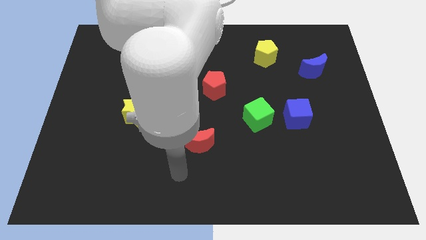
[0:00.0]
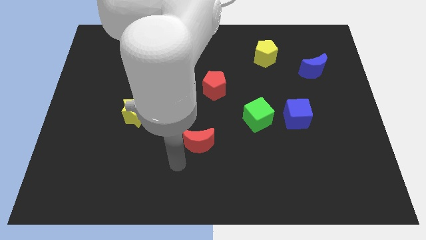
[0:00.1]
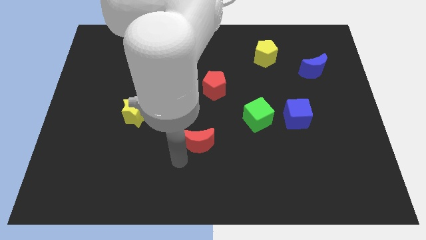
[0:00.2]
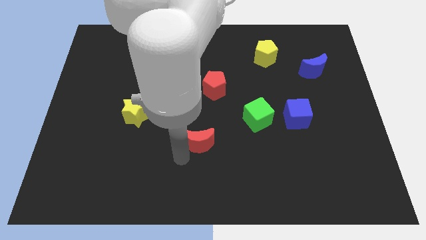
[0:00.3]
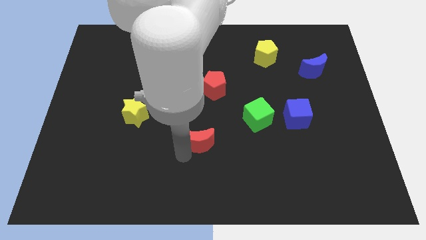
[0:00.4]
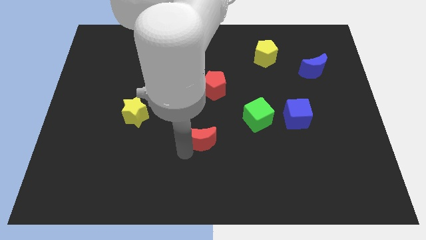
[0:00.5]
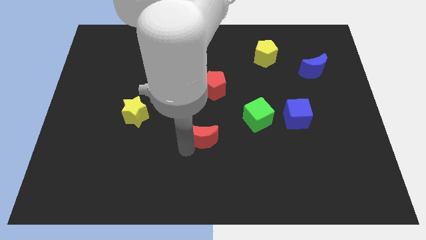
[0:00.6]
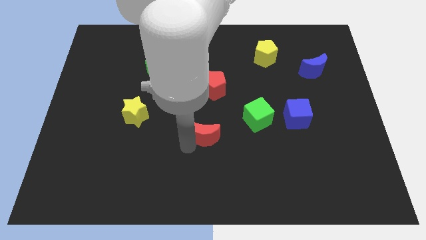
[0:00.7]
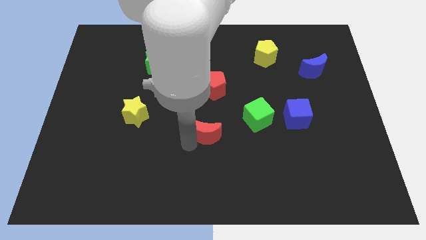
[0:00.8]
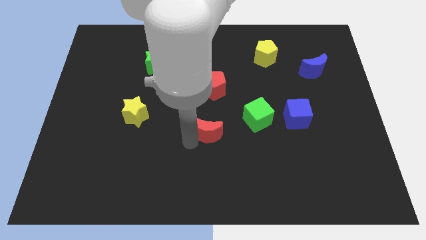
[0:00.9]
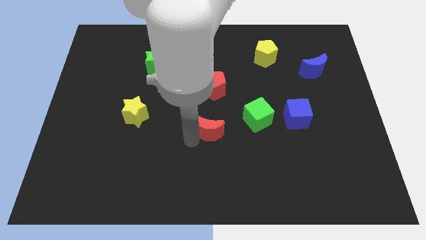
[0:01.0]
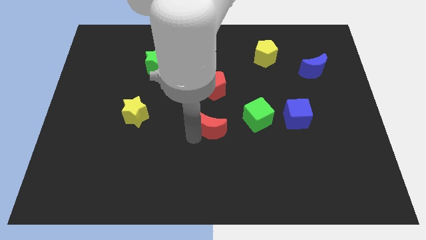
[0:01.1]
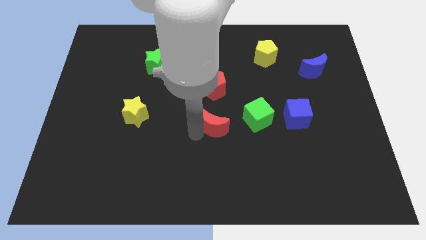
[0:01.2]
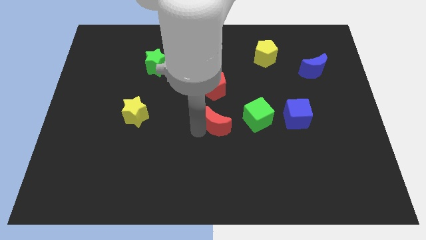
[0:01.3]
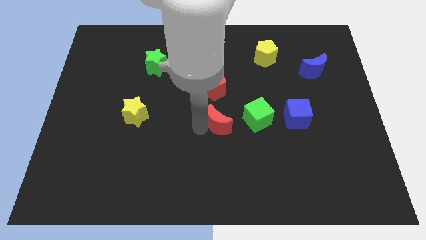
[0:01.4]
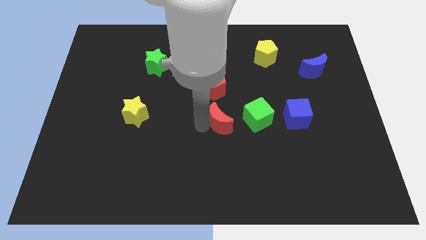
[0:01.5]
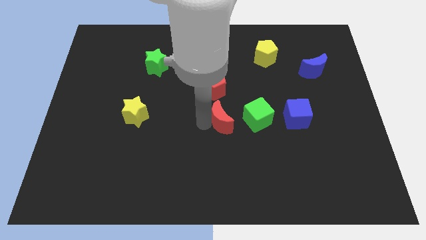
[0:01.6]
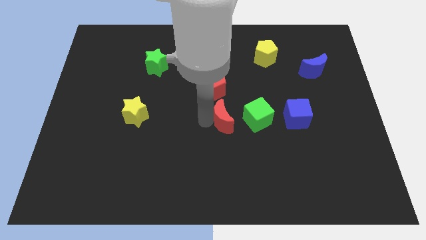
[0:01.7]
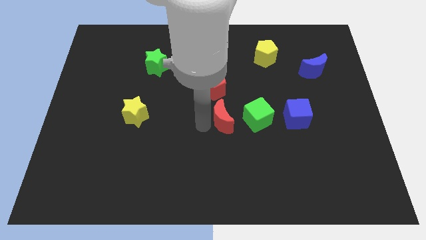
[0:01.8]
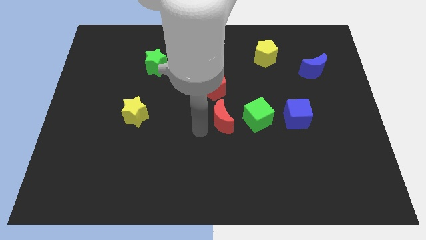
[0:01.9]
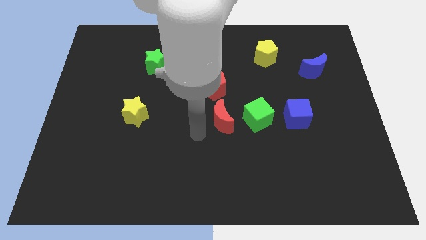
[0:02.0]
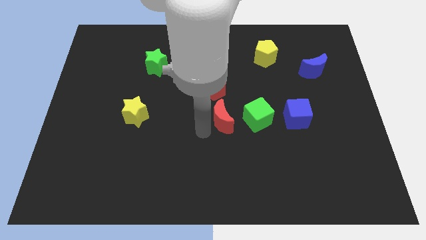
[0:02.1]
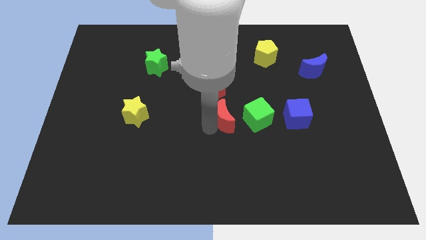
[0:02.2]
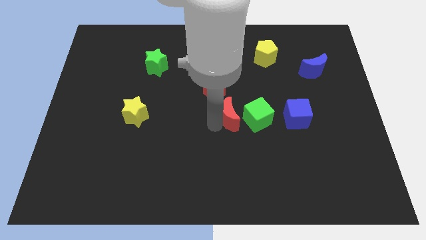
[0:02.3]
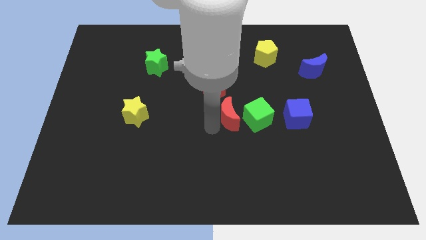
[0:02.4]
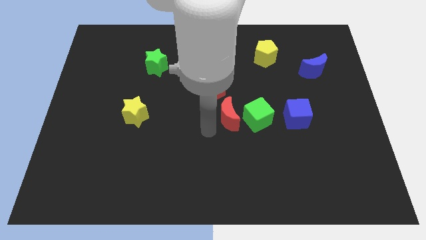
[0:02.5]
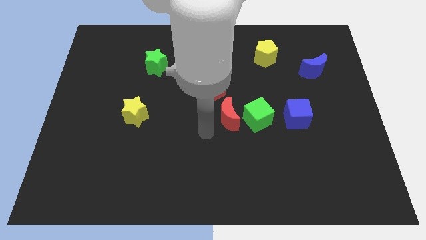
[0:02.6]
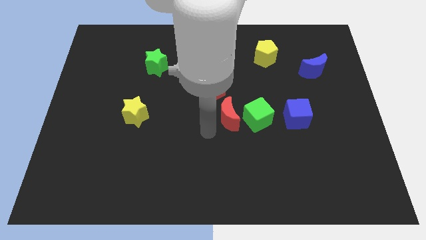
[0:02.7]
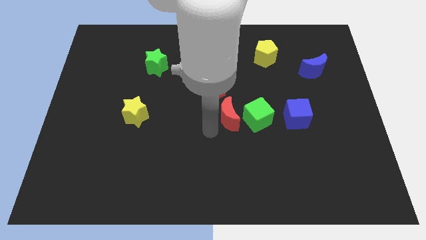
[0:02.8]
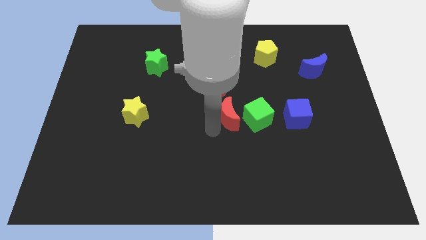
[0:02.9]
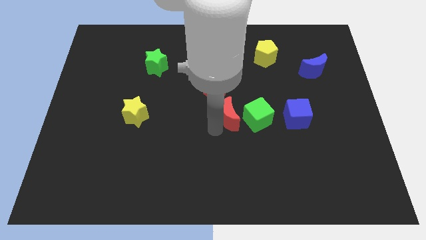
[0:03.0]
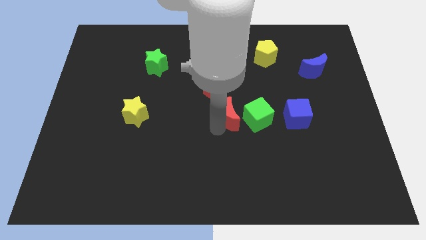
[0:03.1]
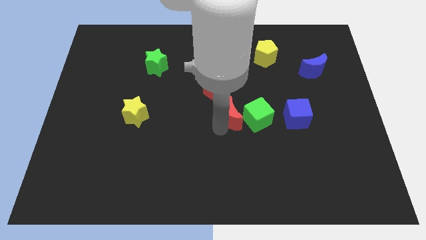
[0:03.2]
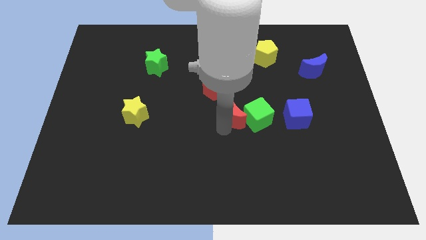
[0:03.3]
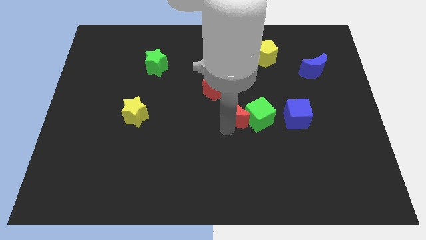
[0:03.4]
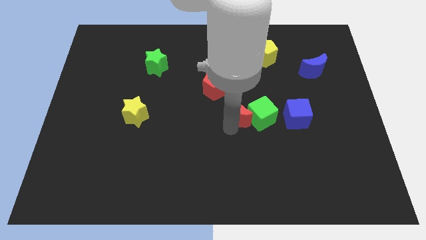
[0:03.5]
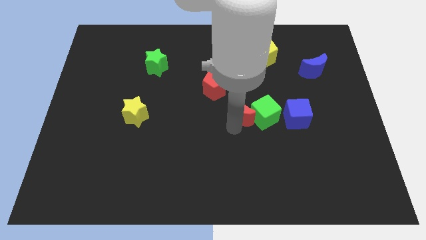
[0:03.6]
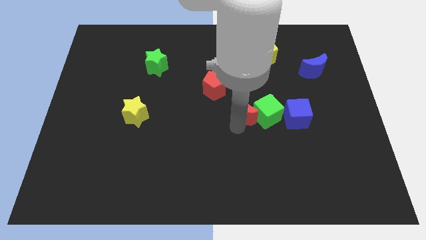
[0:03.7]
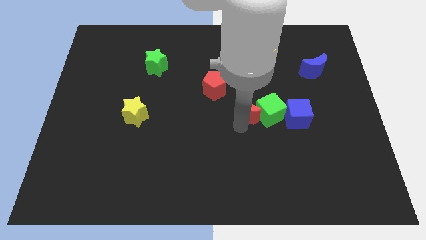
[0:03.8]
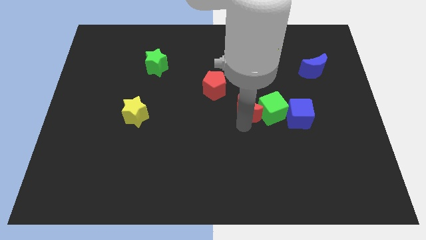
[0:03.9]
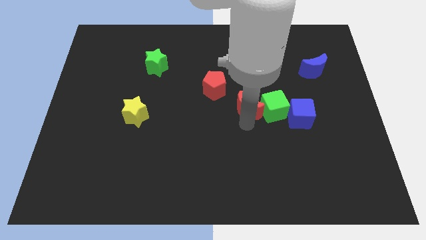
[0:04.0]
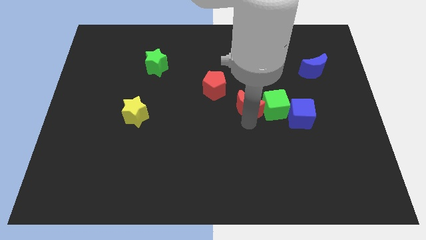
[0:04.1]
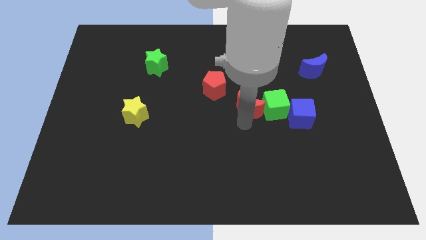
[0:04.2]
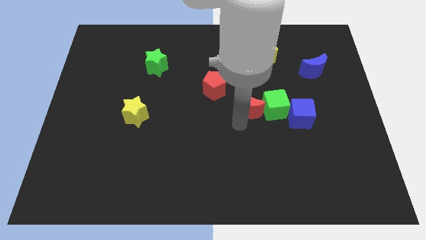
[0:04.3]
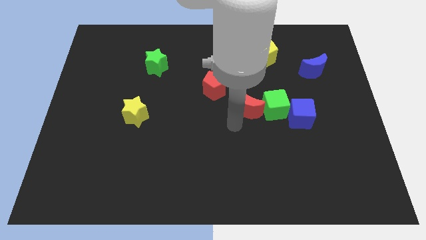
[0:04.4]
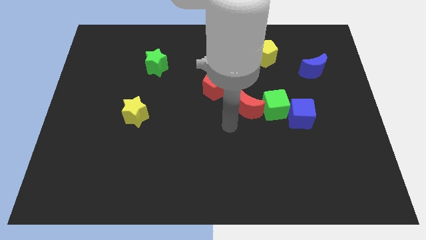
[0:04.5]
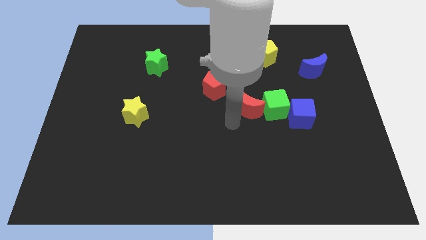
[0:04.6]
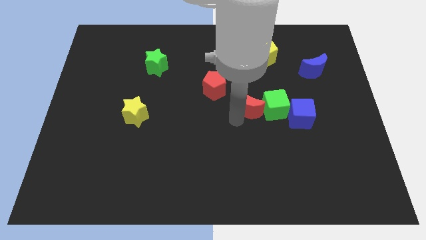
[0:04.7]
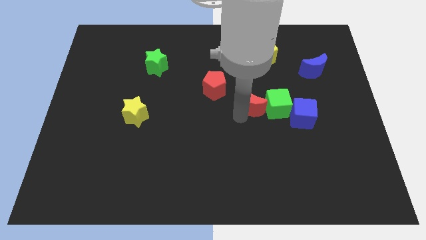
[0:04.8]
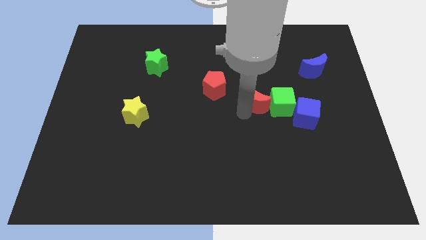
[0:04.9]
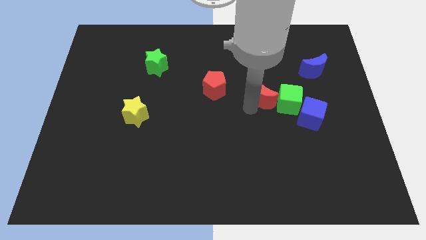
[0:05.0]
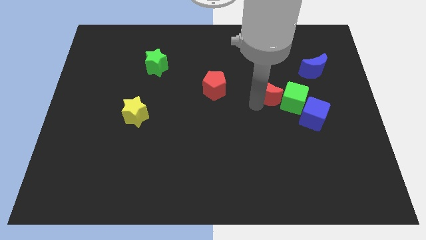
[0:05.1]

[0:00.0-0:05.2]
slide the red moon upwards and then right

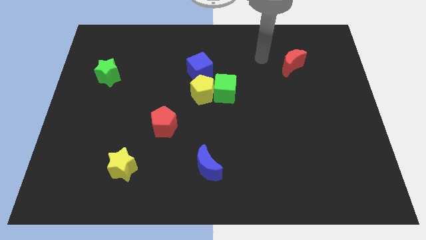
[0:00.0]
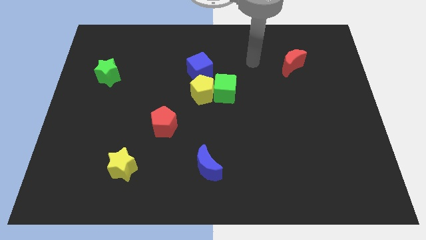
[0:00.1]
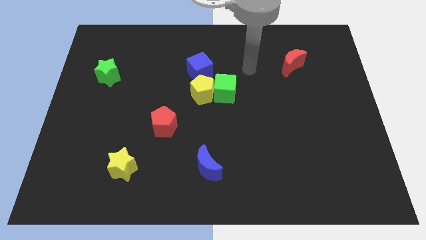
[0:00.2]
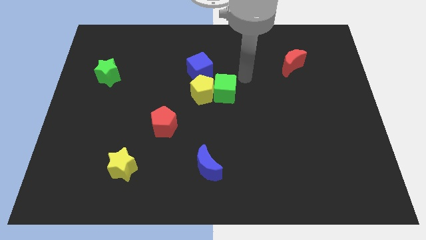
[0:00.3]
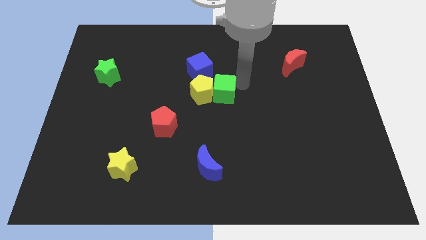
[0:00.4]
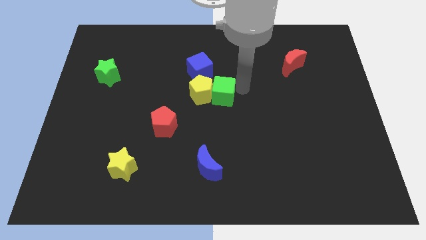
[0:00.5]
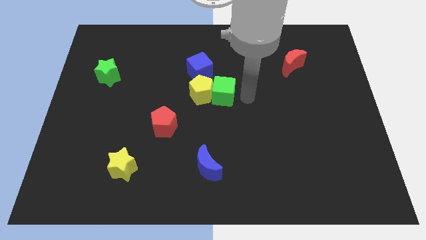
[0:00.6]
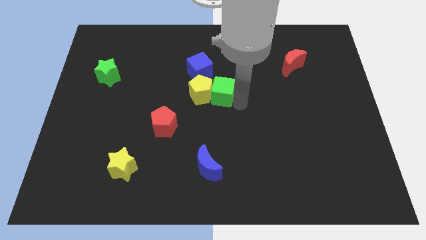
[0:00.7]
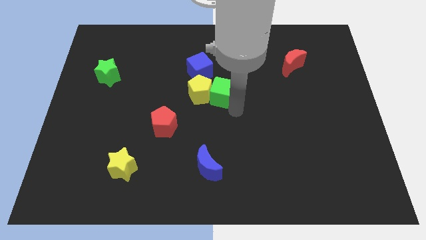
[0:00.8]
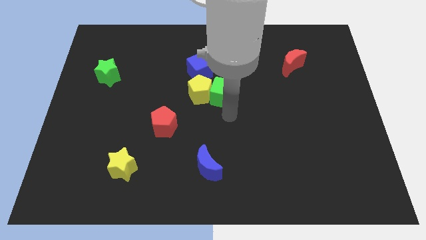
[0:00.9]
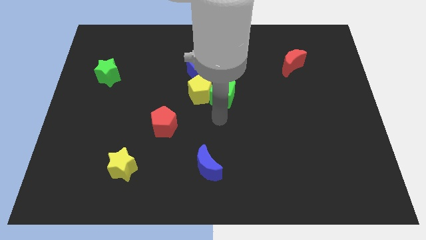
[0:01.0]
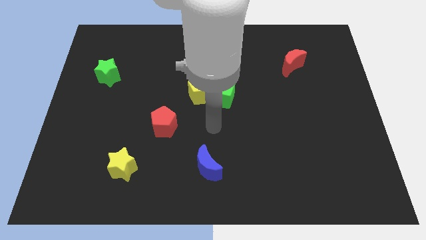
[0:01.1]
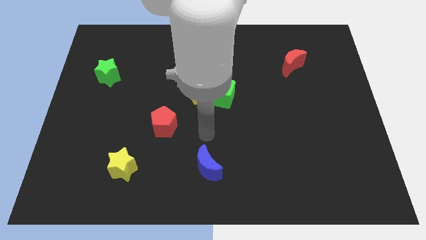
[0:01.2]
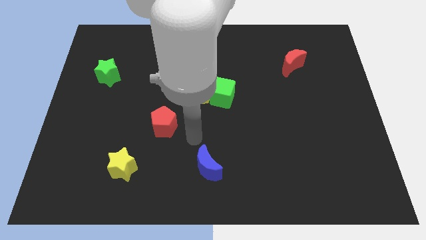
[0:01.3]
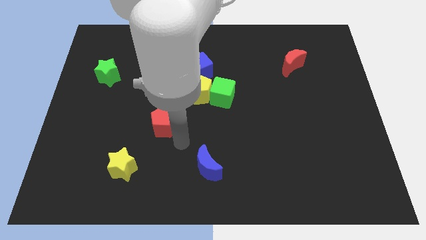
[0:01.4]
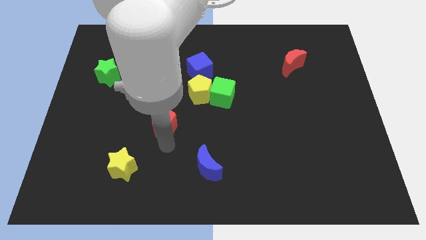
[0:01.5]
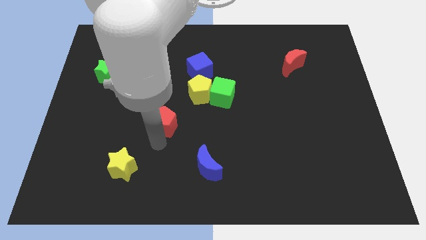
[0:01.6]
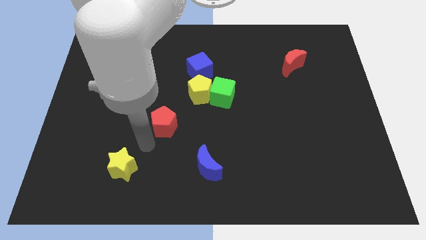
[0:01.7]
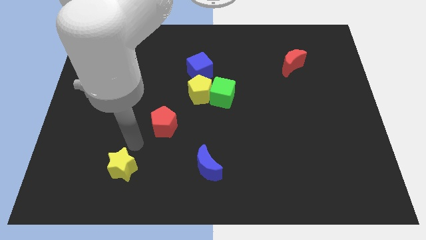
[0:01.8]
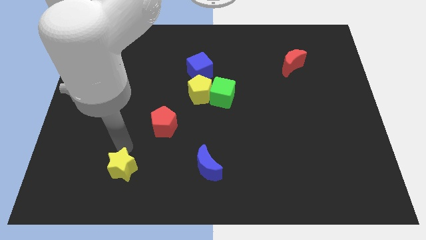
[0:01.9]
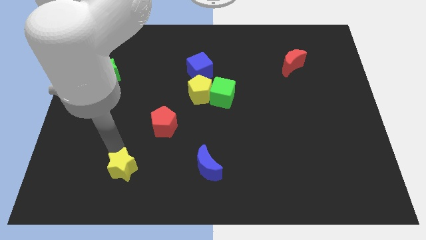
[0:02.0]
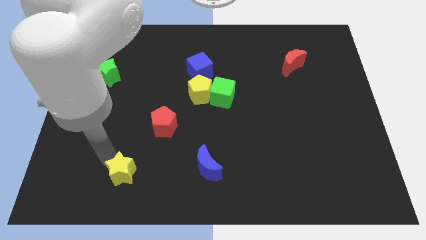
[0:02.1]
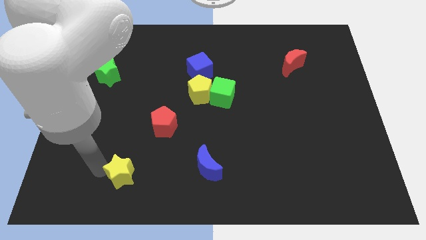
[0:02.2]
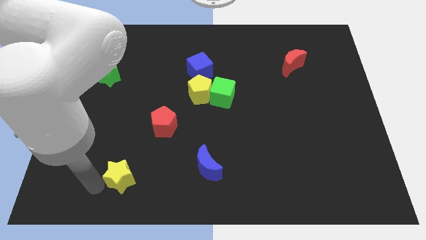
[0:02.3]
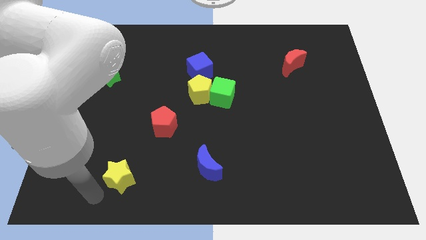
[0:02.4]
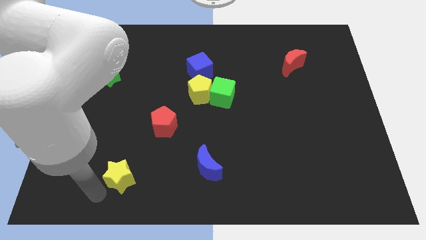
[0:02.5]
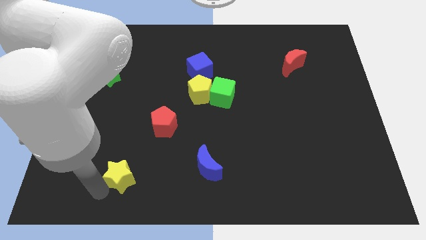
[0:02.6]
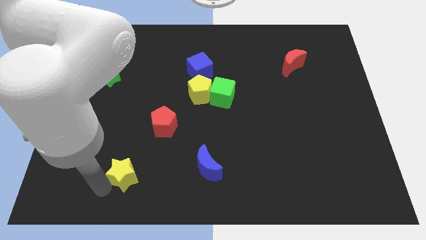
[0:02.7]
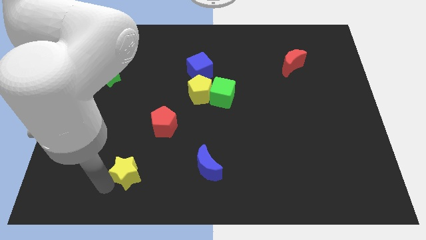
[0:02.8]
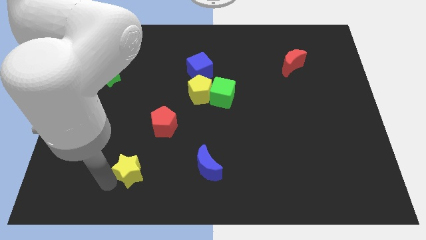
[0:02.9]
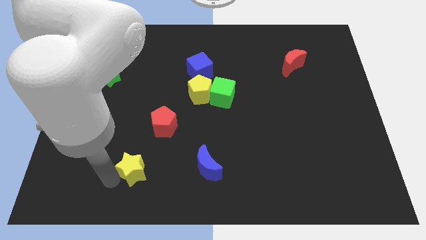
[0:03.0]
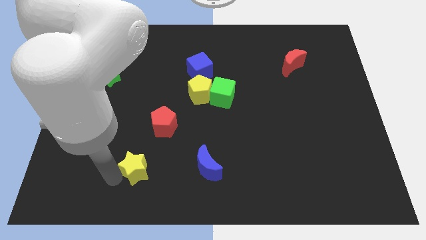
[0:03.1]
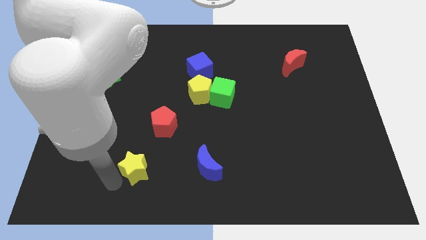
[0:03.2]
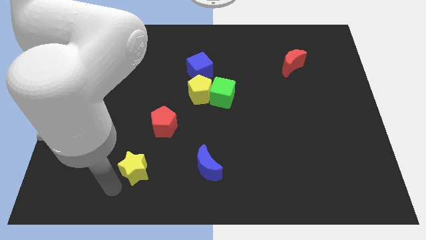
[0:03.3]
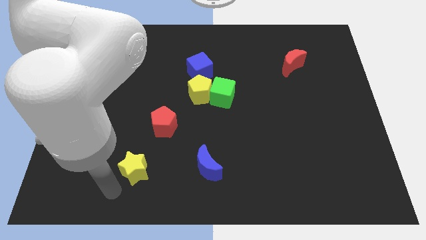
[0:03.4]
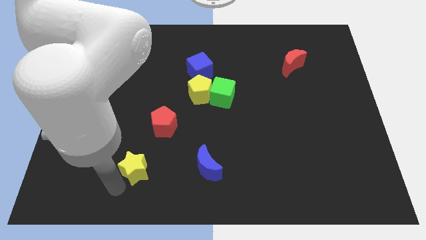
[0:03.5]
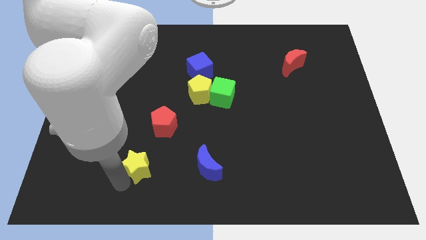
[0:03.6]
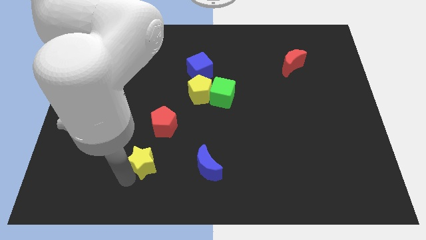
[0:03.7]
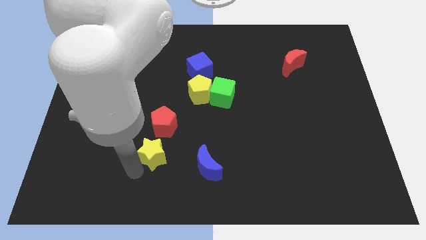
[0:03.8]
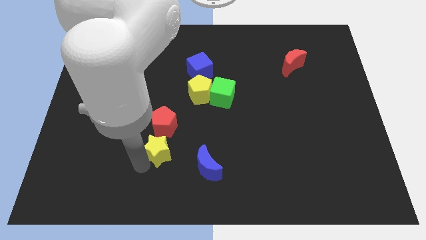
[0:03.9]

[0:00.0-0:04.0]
slightly move the yellow star diagonally up and right
